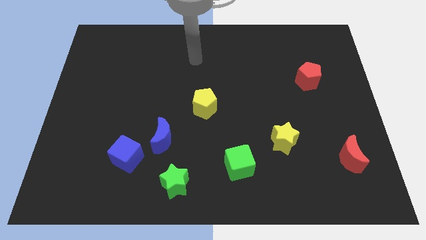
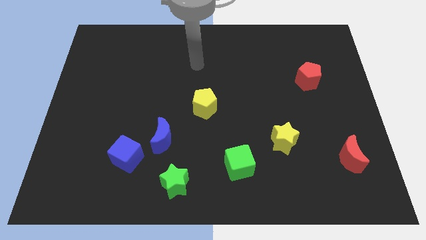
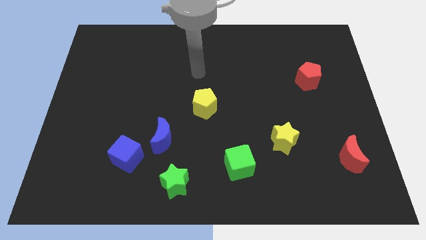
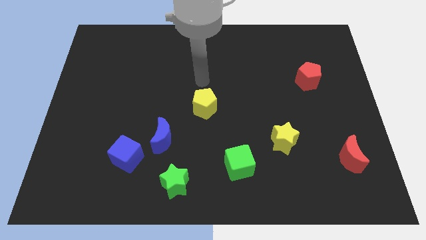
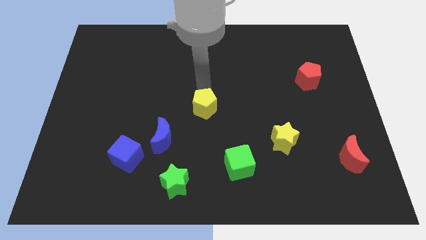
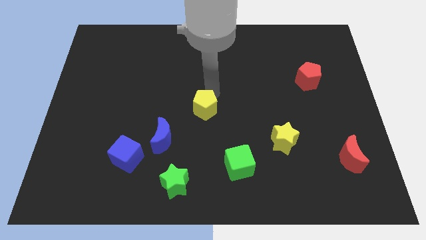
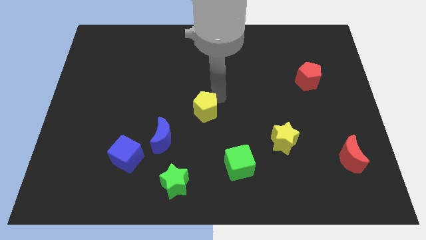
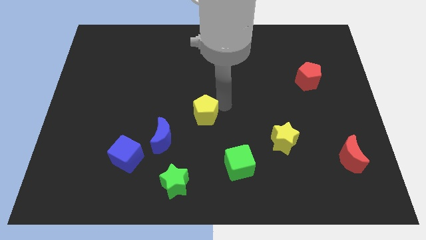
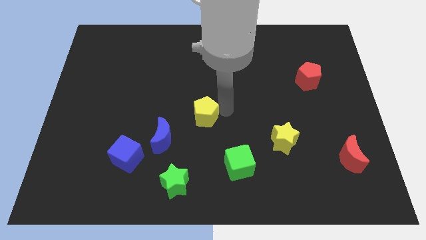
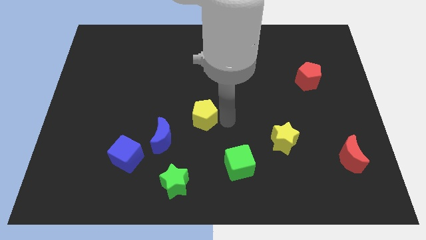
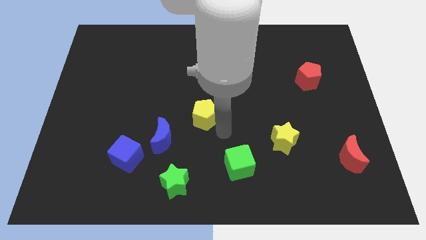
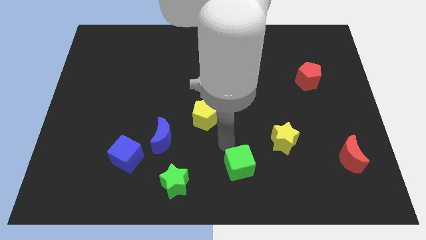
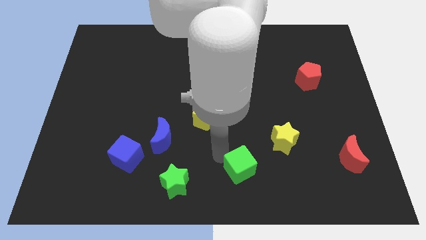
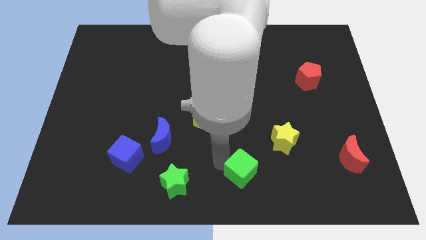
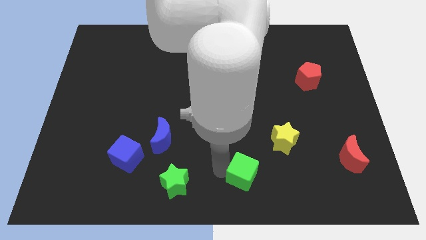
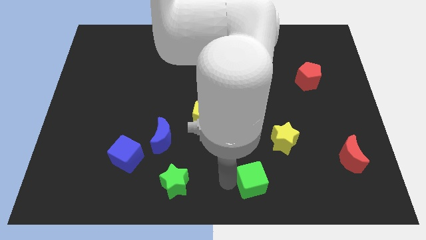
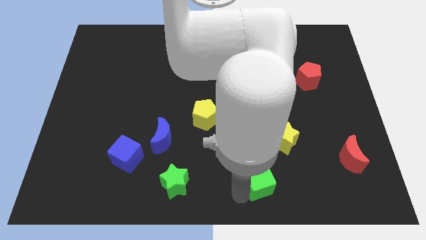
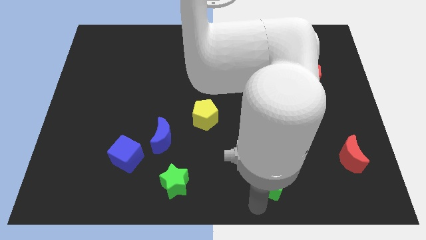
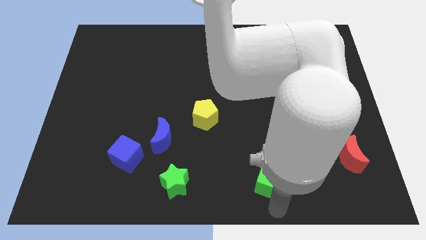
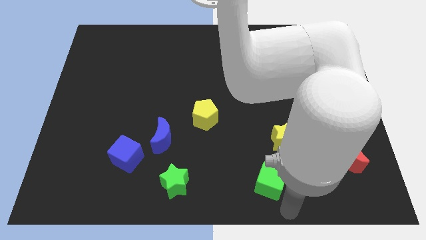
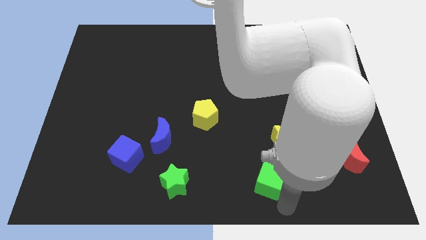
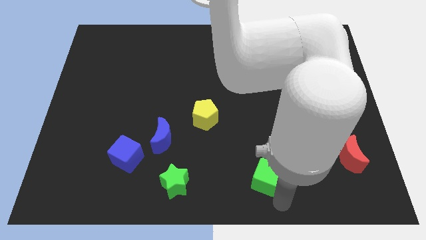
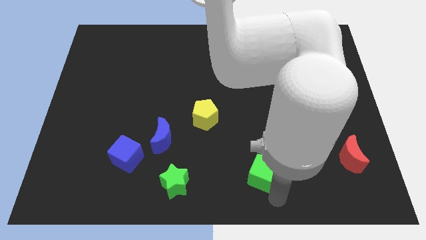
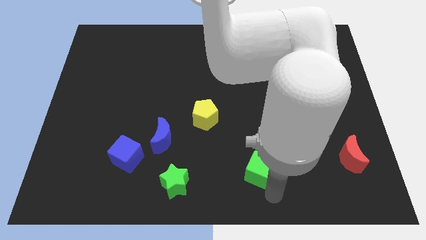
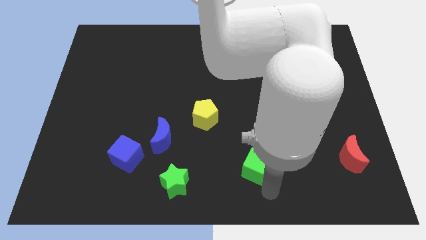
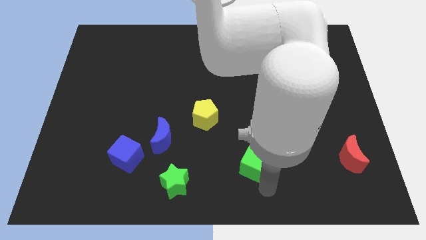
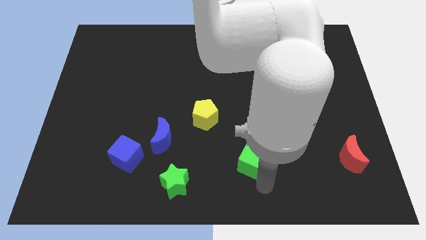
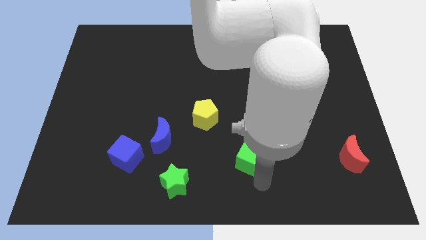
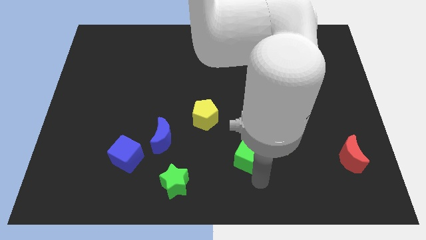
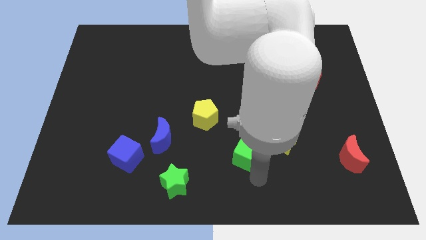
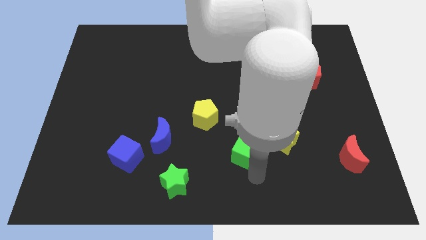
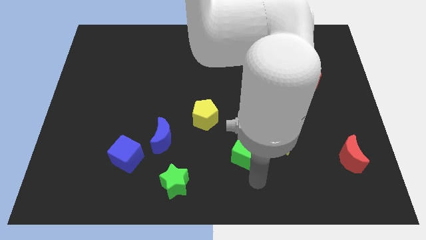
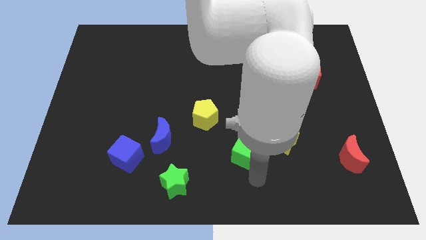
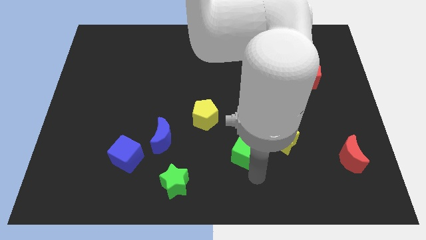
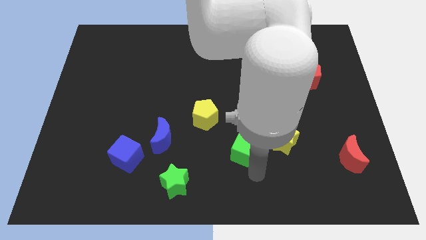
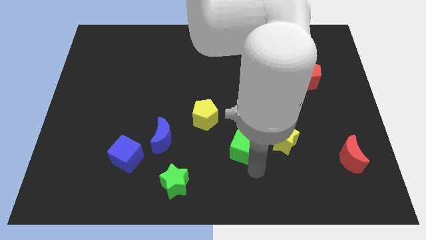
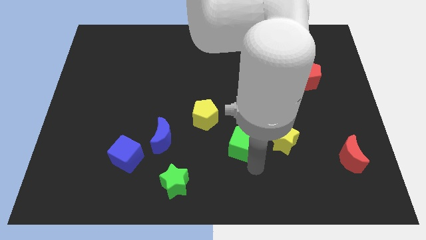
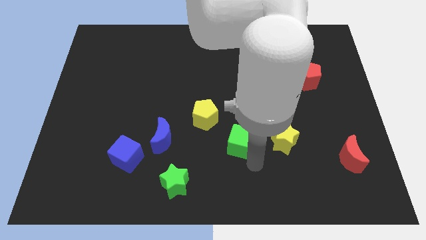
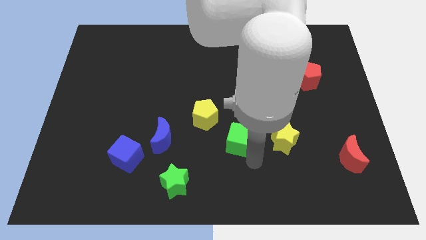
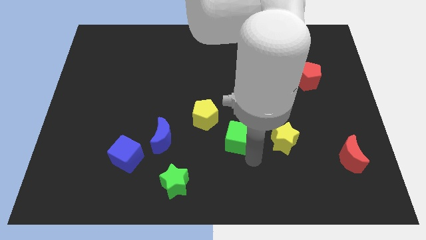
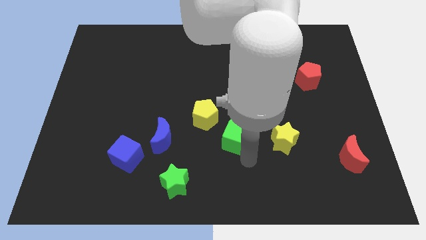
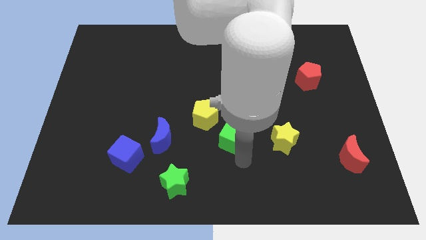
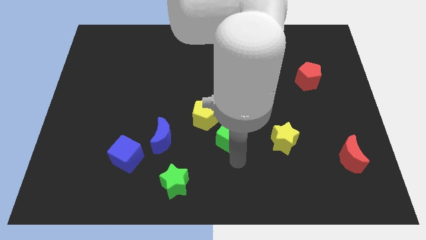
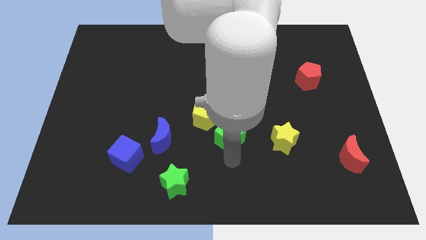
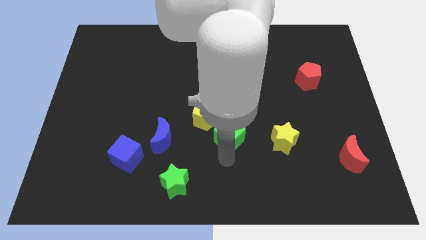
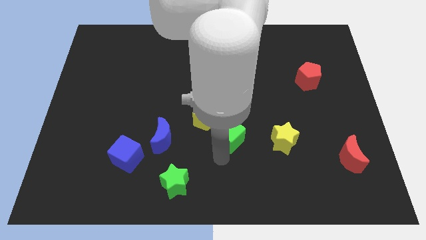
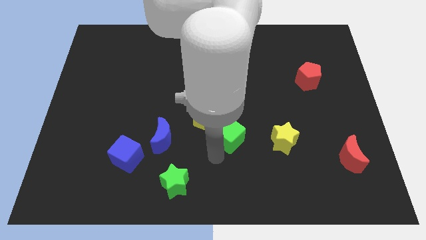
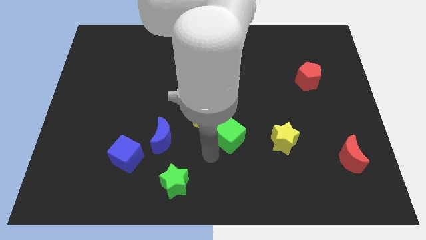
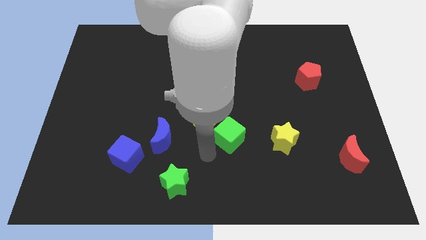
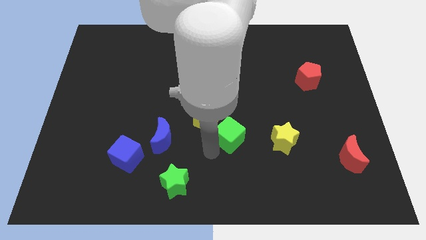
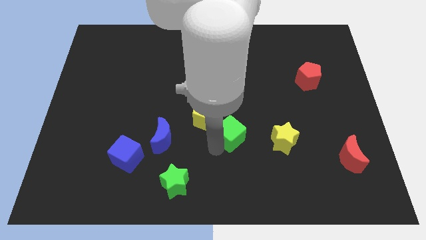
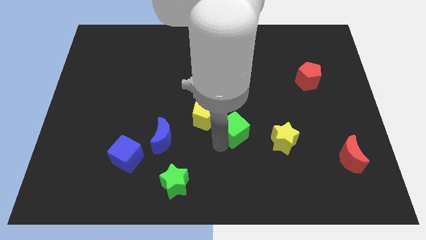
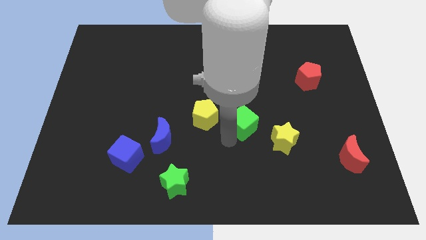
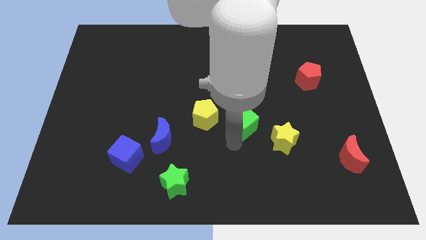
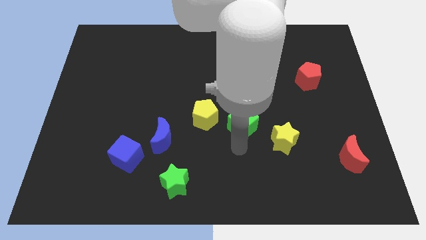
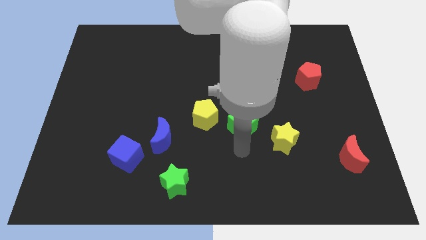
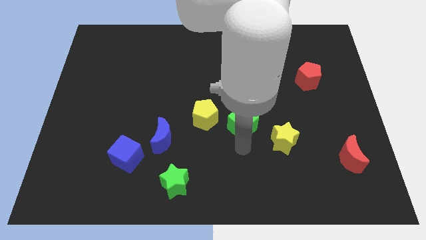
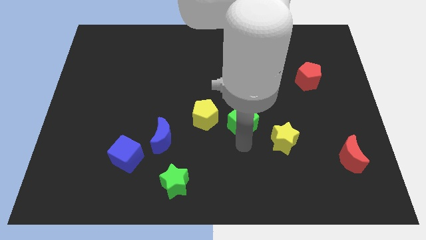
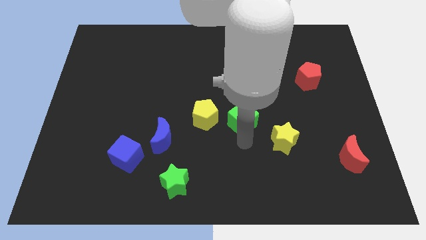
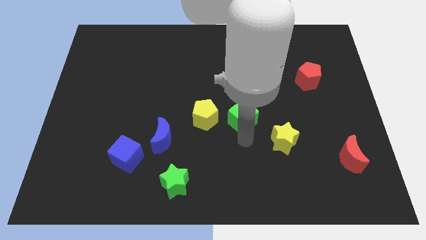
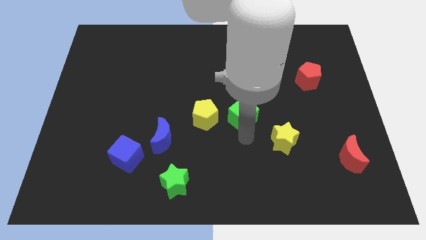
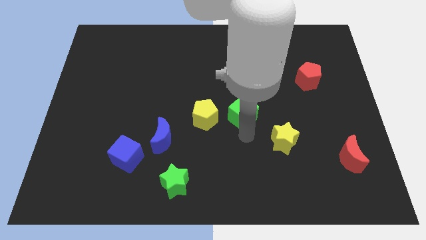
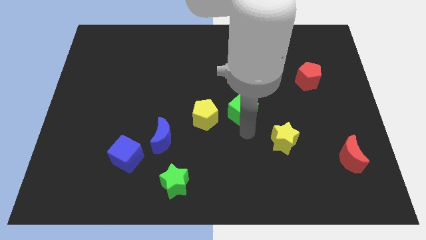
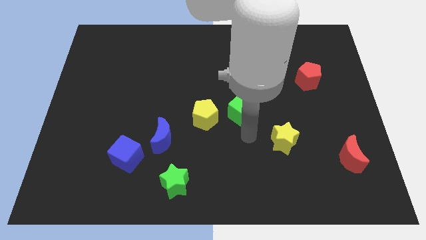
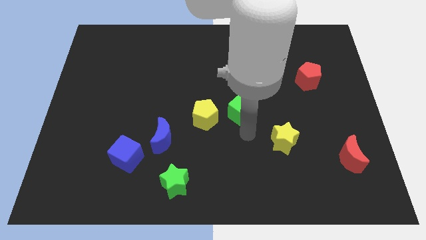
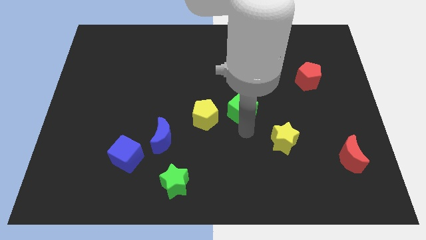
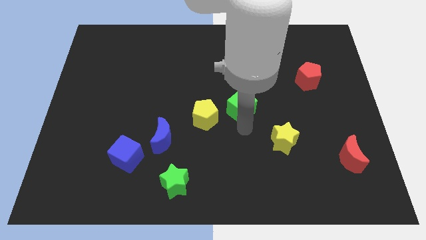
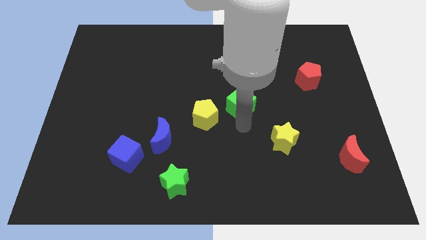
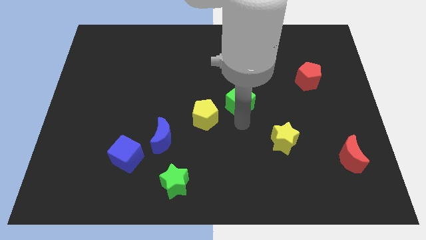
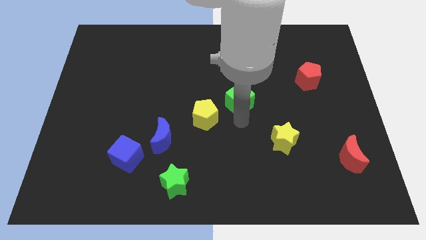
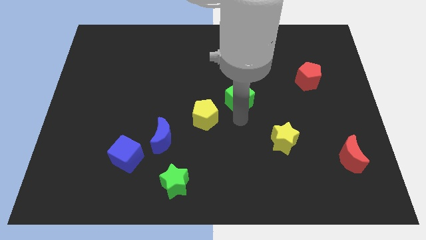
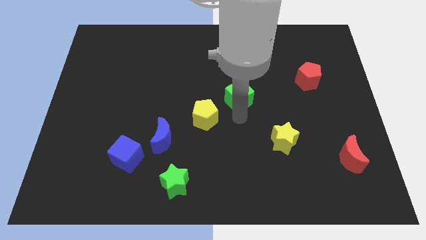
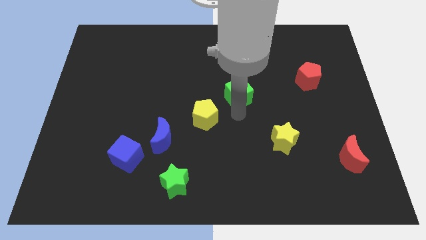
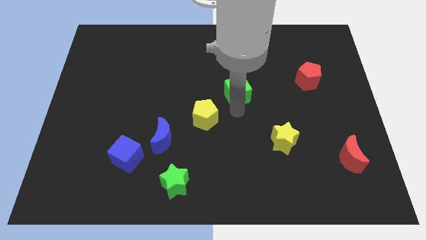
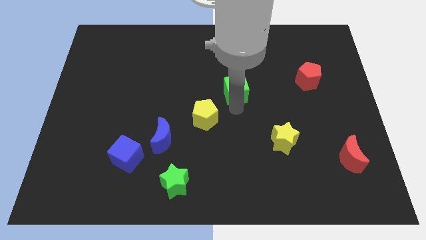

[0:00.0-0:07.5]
slide the green cube up

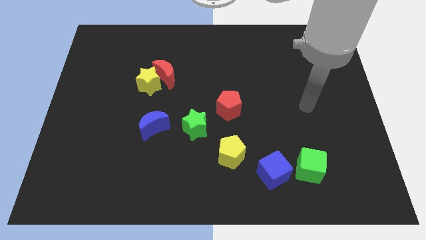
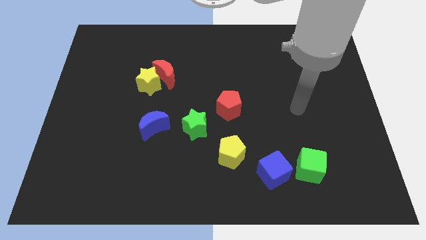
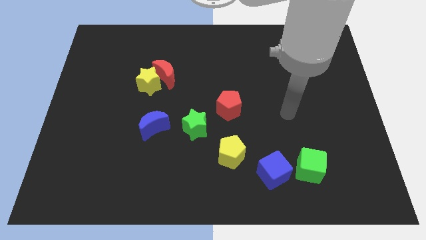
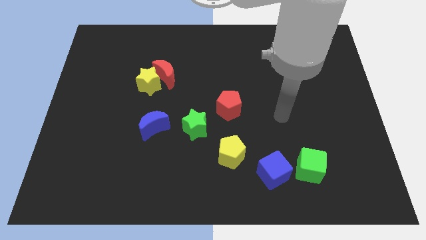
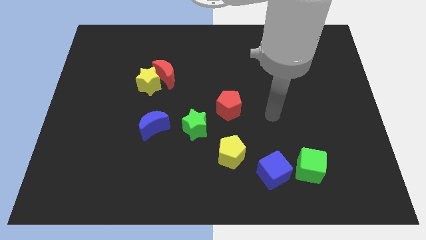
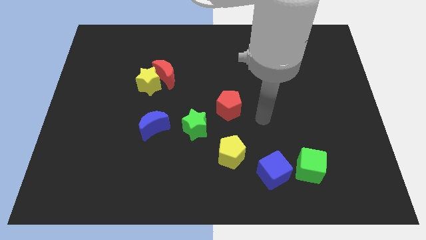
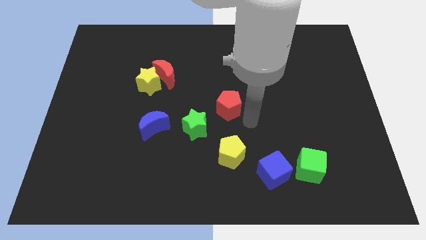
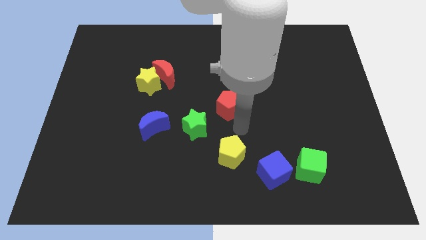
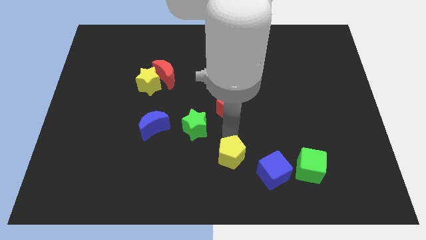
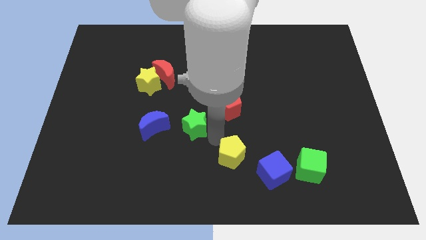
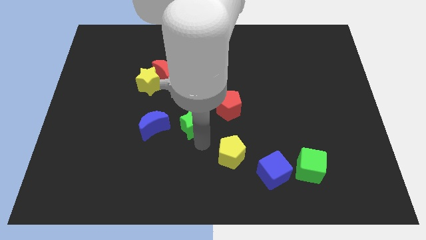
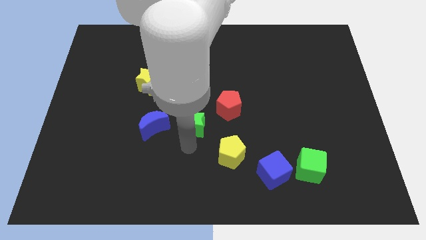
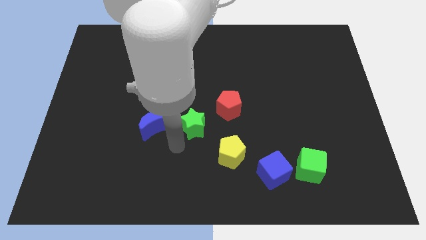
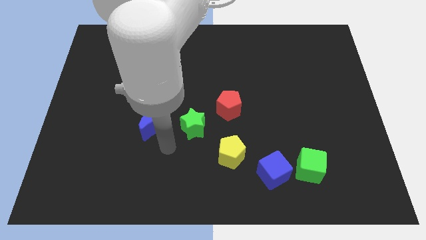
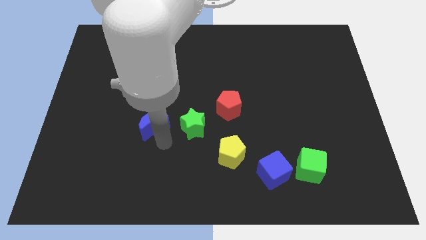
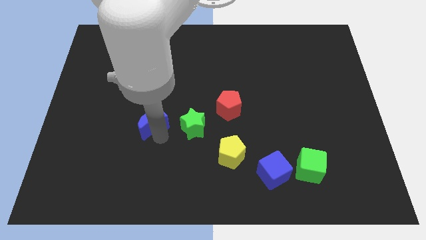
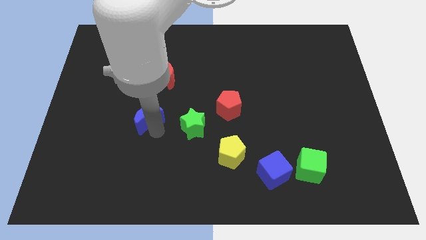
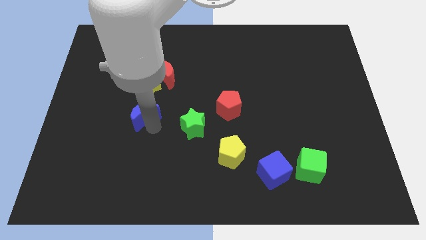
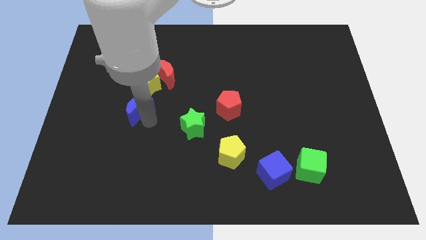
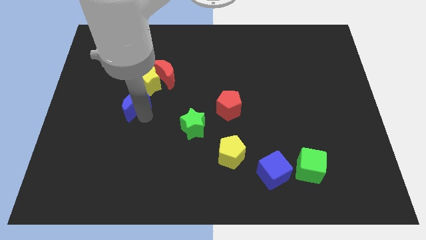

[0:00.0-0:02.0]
push the blue moon diagonally up and to the left a bit
